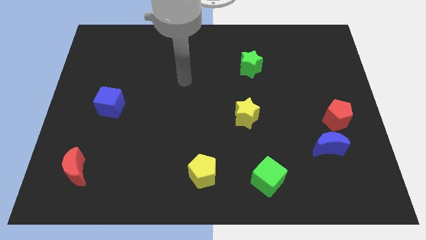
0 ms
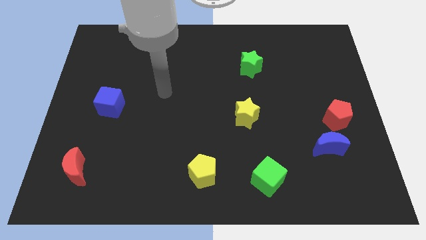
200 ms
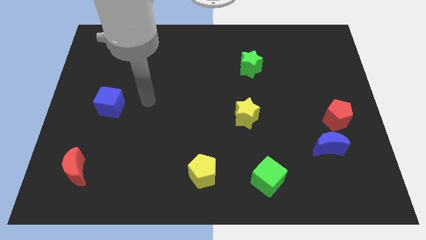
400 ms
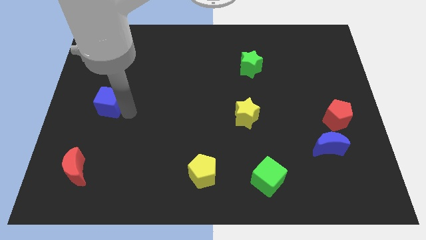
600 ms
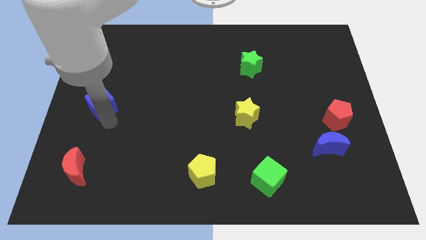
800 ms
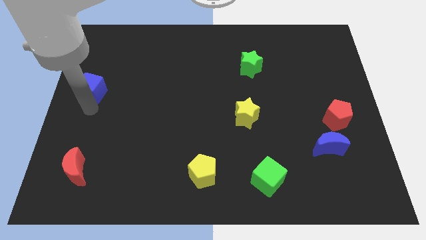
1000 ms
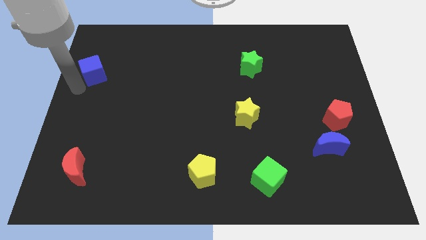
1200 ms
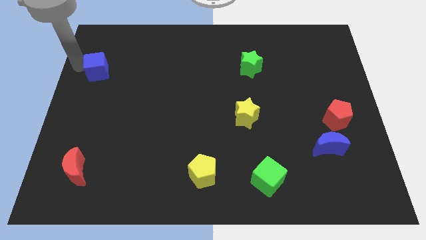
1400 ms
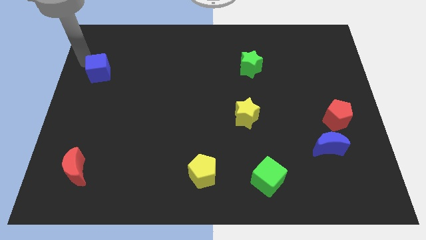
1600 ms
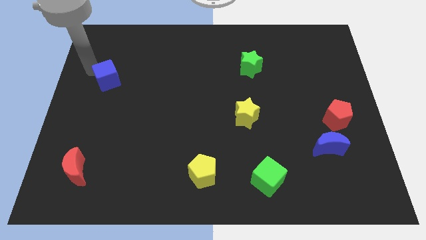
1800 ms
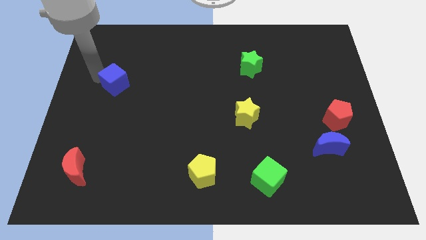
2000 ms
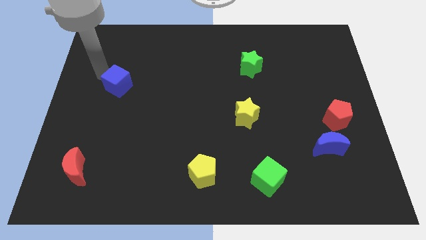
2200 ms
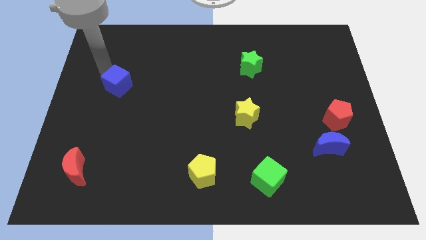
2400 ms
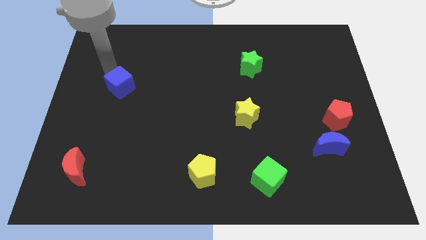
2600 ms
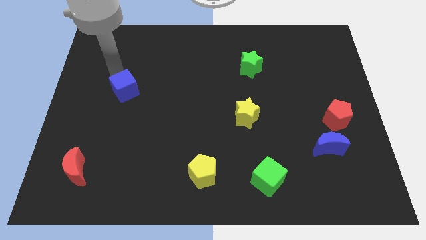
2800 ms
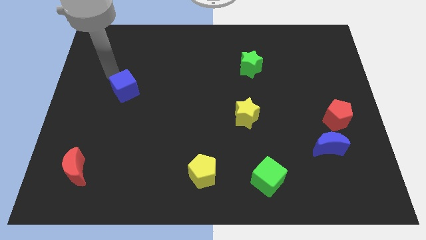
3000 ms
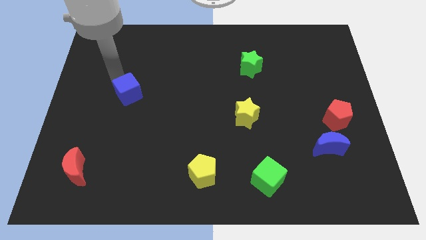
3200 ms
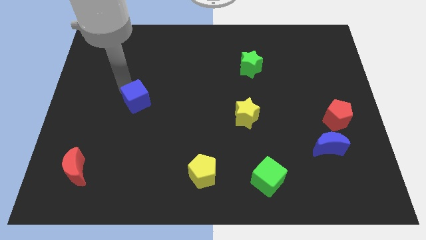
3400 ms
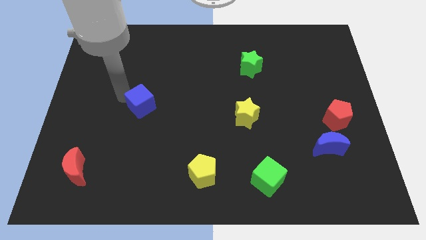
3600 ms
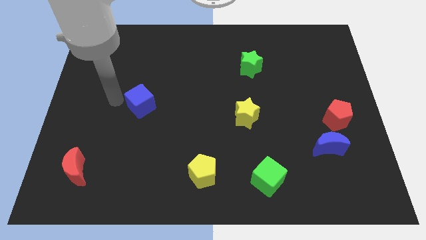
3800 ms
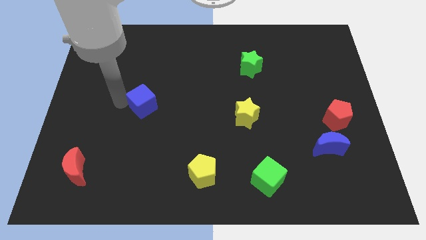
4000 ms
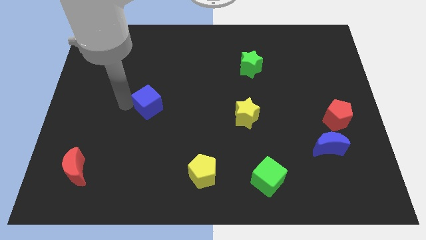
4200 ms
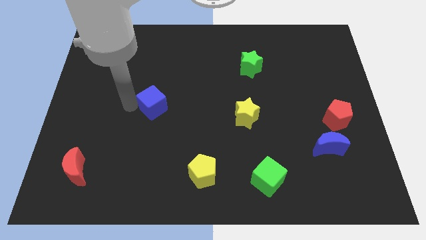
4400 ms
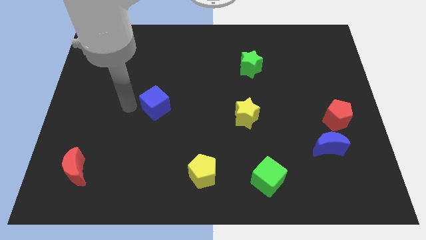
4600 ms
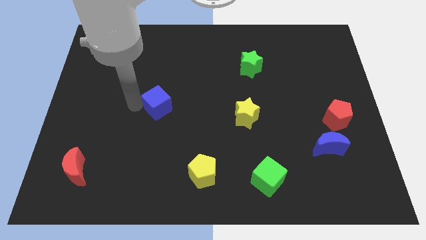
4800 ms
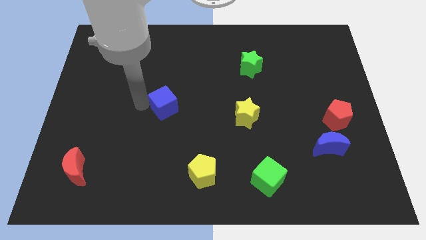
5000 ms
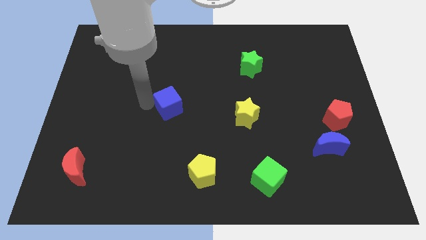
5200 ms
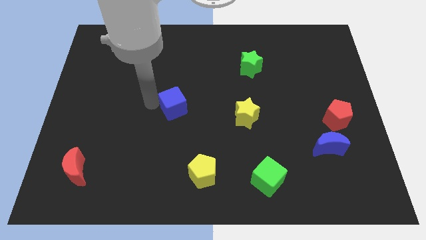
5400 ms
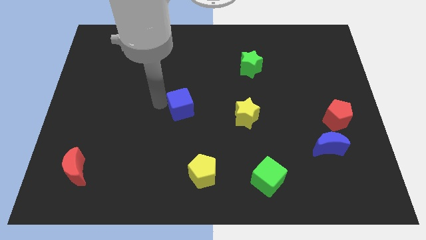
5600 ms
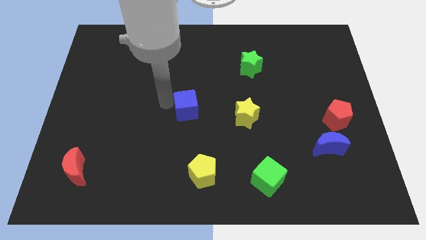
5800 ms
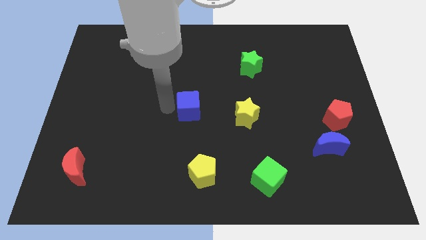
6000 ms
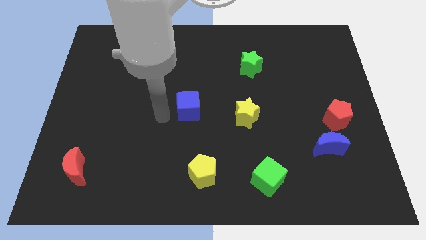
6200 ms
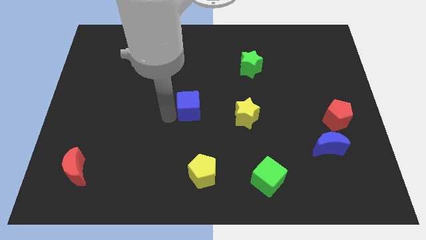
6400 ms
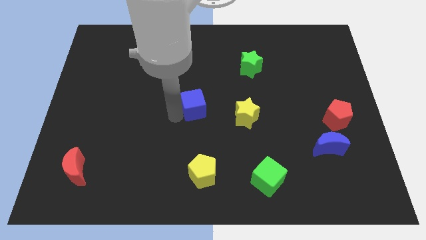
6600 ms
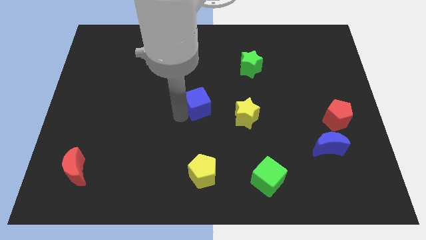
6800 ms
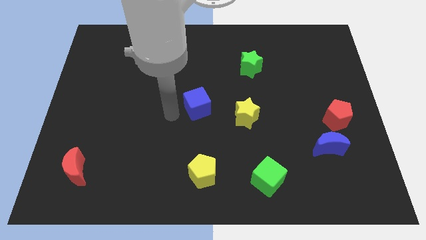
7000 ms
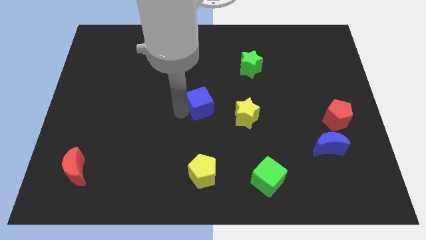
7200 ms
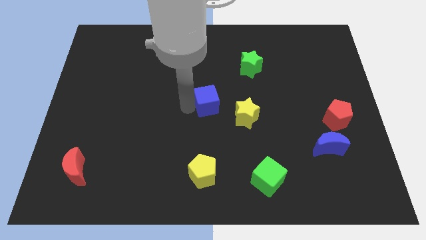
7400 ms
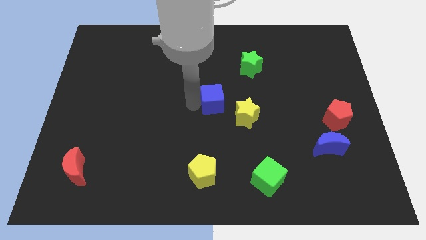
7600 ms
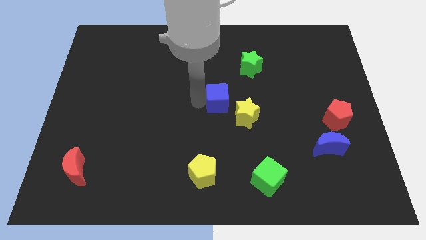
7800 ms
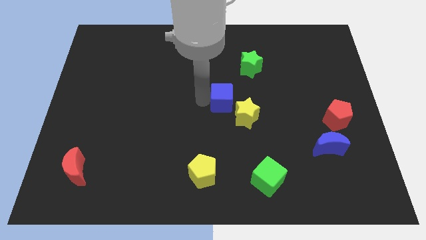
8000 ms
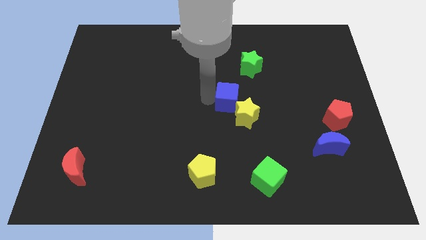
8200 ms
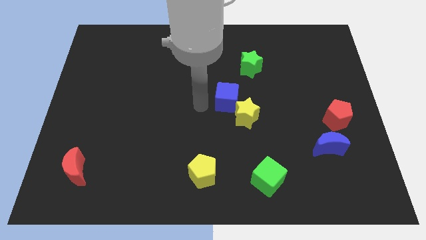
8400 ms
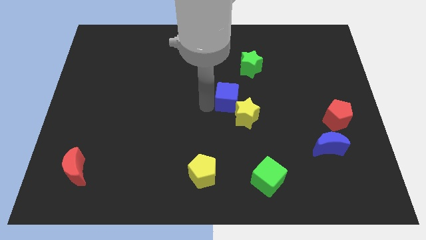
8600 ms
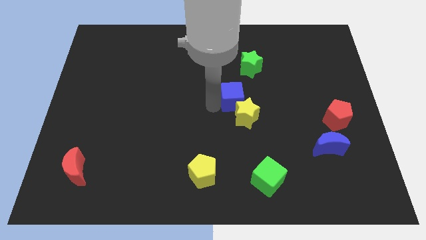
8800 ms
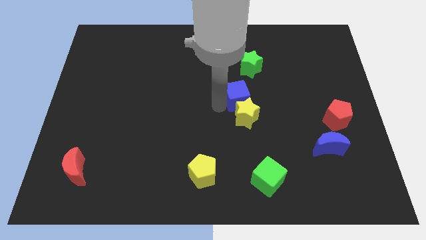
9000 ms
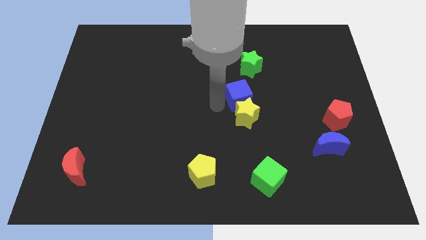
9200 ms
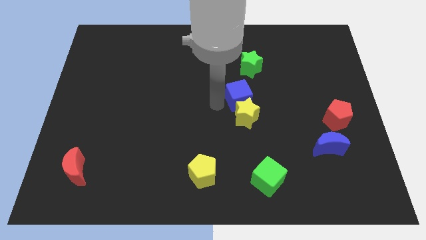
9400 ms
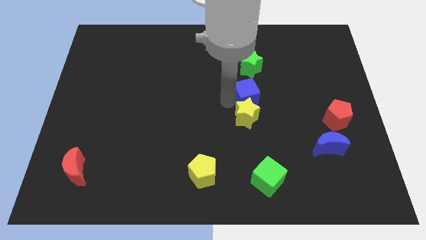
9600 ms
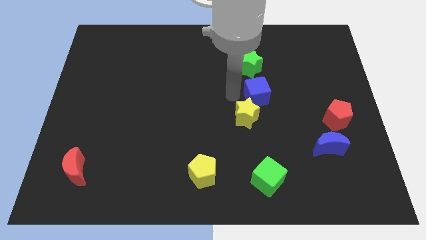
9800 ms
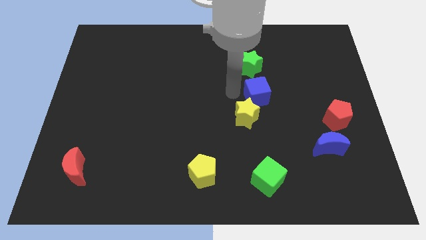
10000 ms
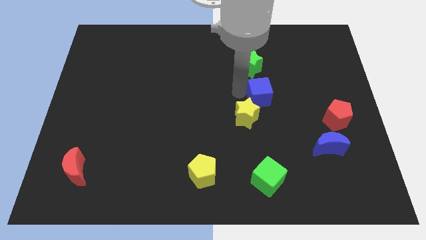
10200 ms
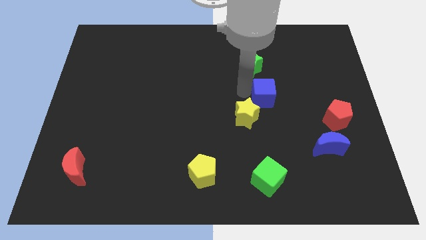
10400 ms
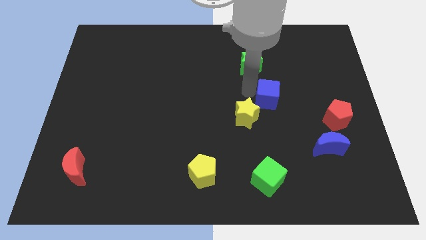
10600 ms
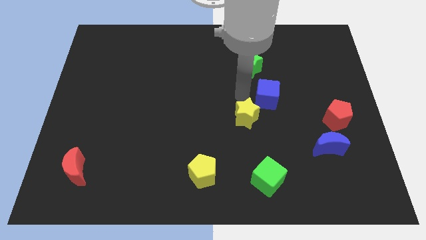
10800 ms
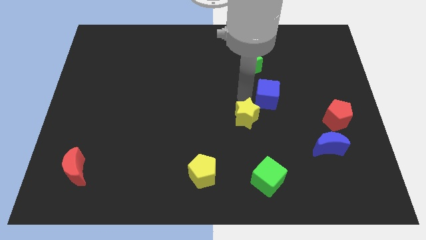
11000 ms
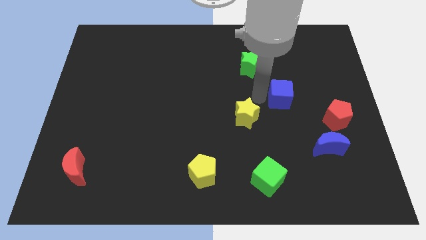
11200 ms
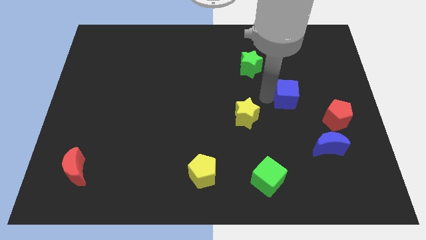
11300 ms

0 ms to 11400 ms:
move the blue cube diagonally up and to the left of the red pentagon
